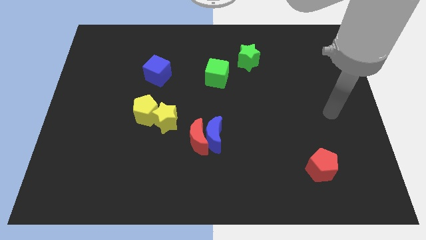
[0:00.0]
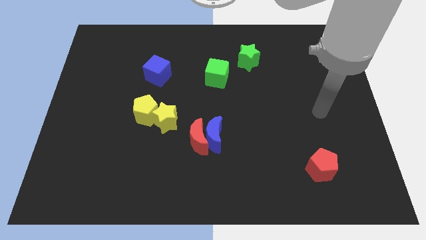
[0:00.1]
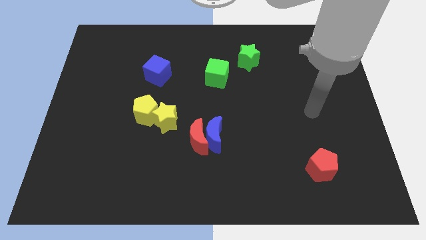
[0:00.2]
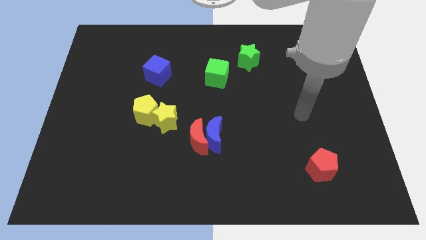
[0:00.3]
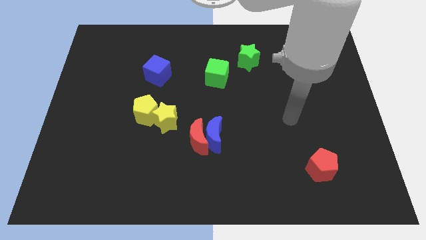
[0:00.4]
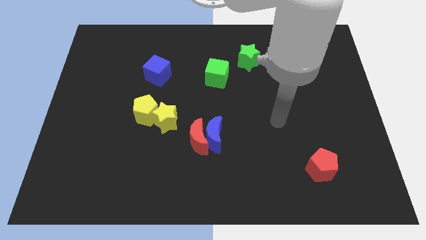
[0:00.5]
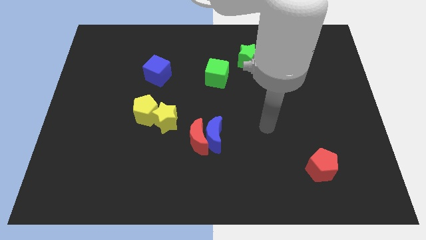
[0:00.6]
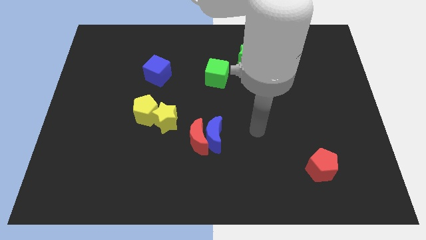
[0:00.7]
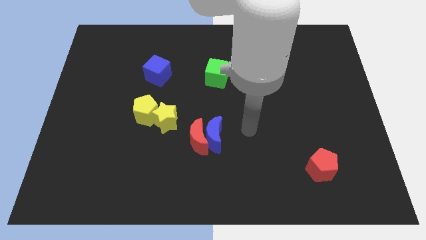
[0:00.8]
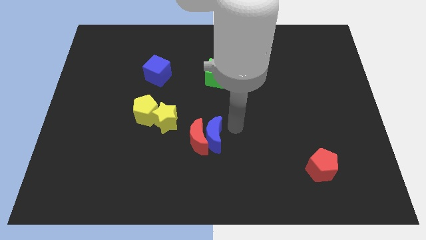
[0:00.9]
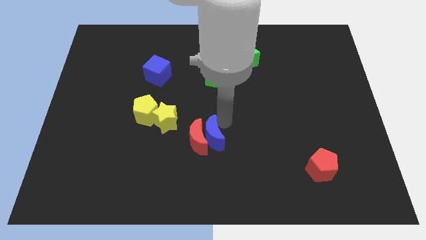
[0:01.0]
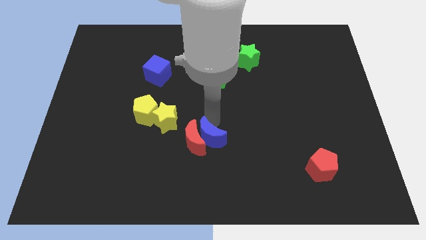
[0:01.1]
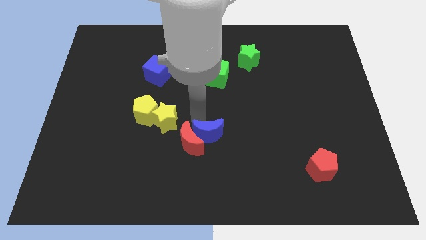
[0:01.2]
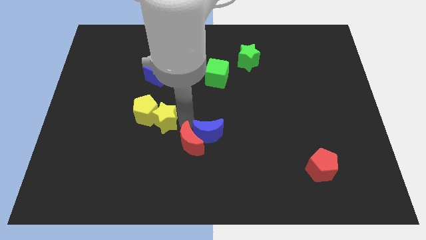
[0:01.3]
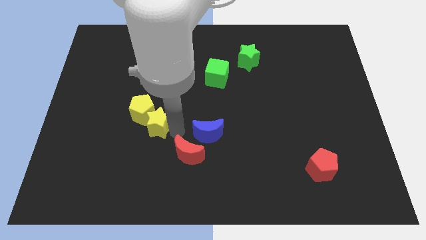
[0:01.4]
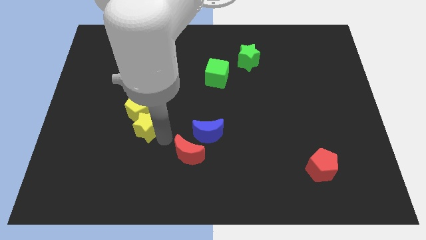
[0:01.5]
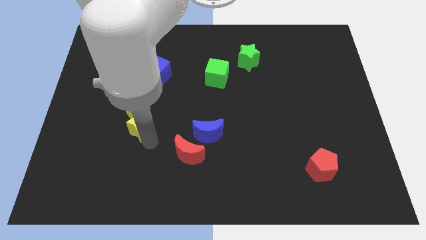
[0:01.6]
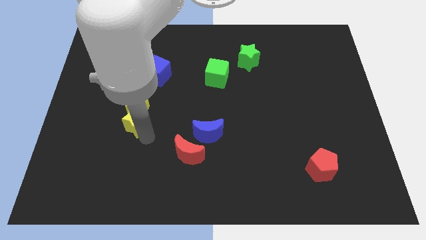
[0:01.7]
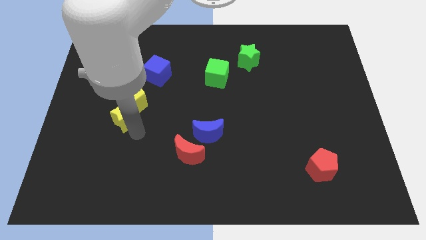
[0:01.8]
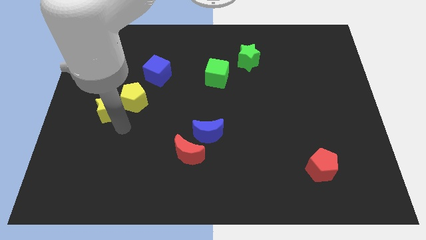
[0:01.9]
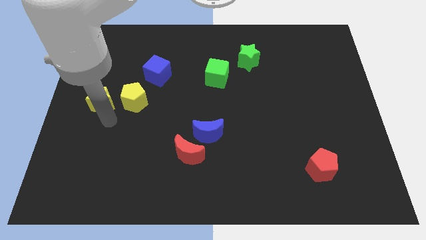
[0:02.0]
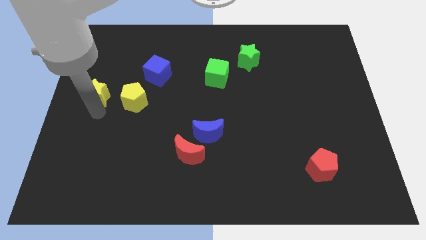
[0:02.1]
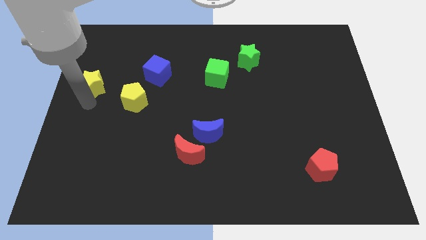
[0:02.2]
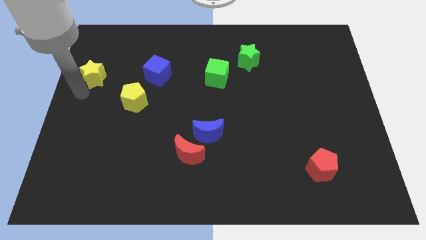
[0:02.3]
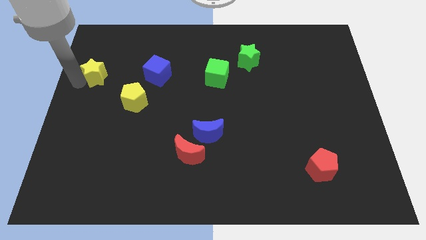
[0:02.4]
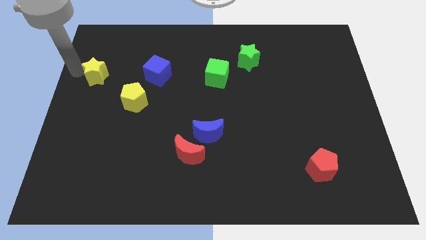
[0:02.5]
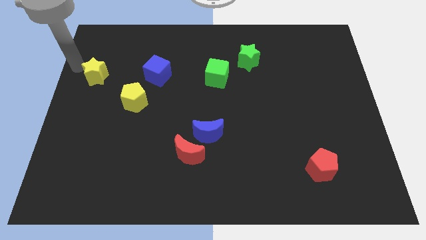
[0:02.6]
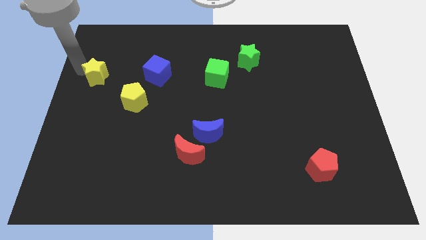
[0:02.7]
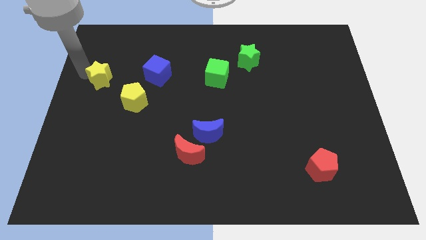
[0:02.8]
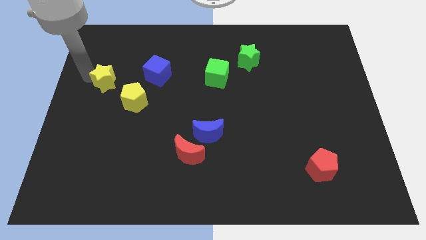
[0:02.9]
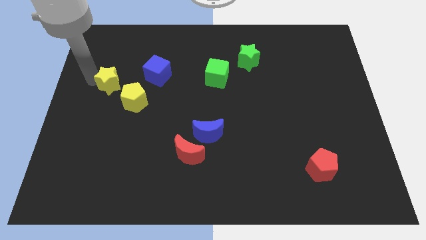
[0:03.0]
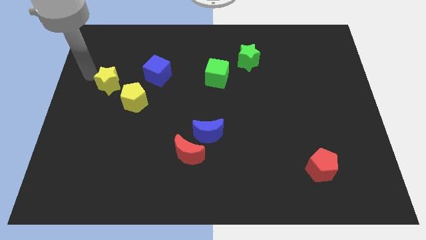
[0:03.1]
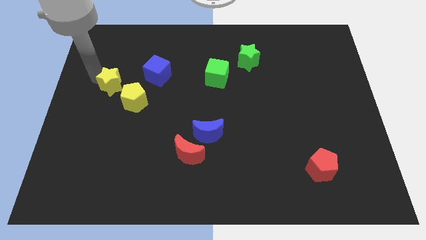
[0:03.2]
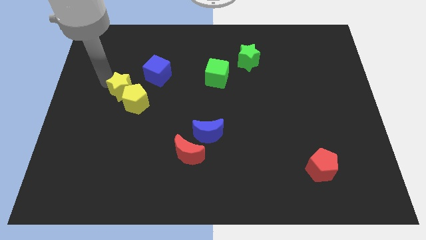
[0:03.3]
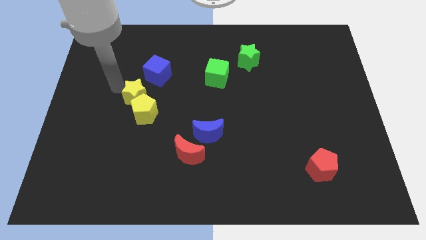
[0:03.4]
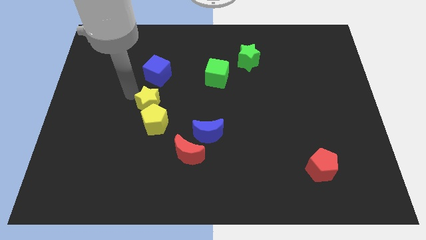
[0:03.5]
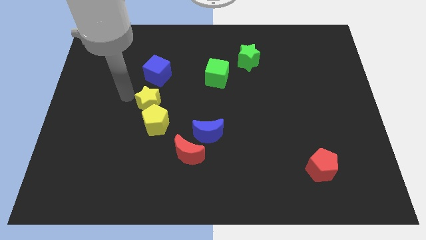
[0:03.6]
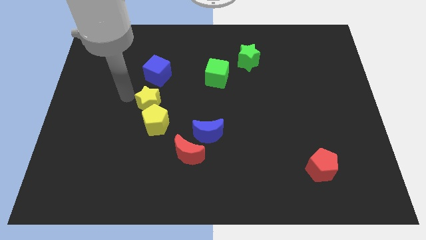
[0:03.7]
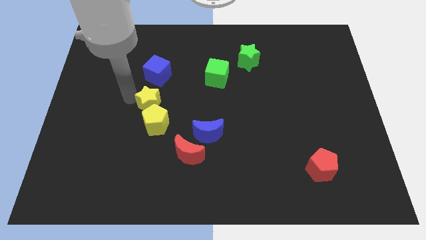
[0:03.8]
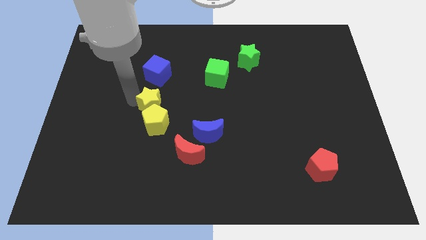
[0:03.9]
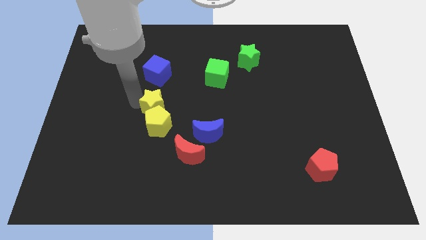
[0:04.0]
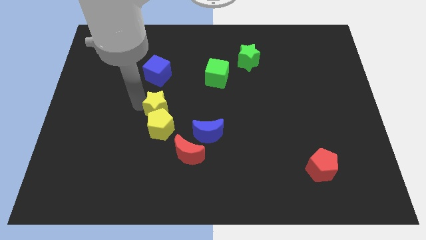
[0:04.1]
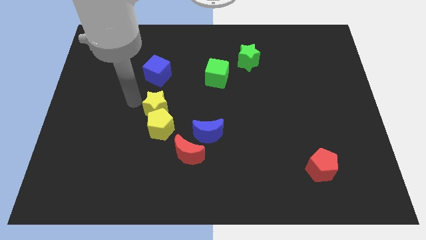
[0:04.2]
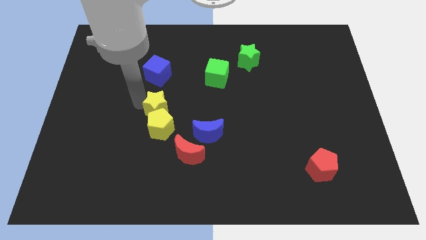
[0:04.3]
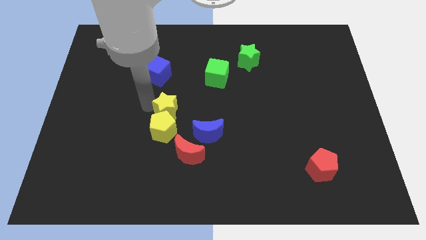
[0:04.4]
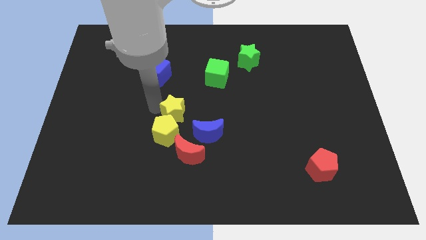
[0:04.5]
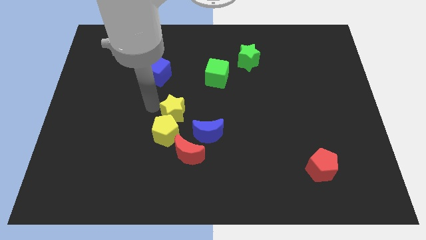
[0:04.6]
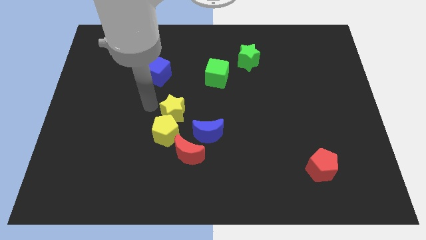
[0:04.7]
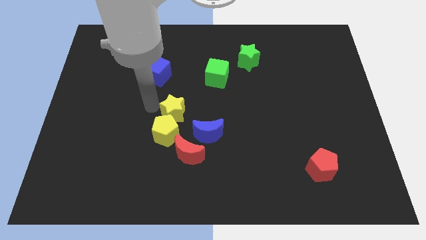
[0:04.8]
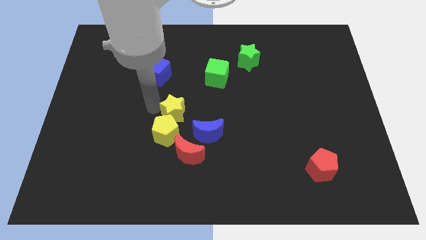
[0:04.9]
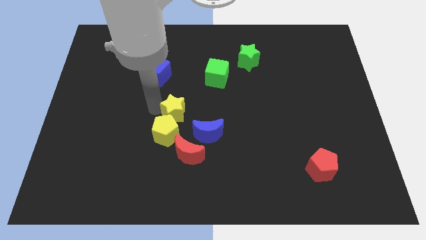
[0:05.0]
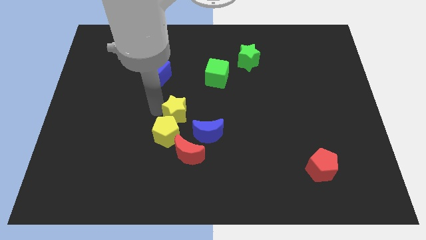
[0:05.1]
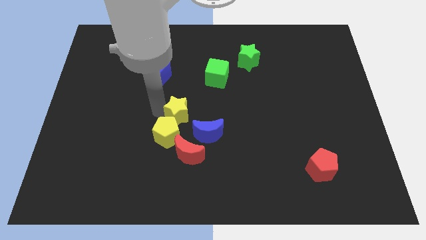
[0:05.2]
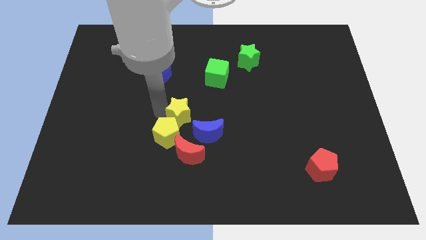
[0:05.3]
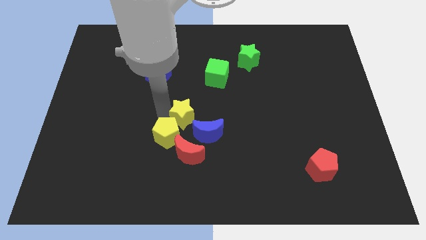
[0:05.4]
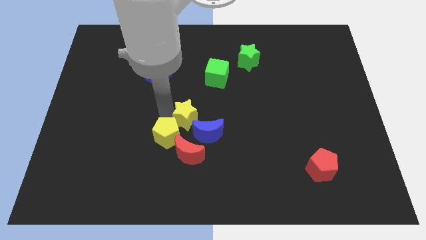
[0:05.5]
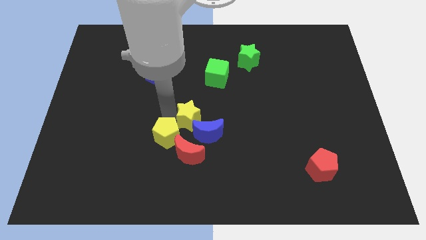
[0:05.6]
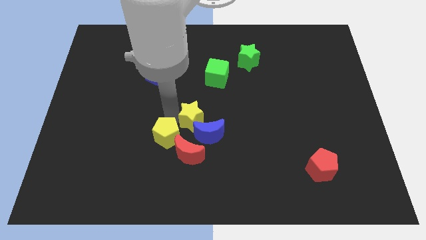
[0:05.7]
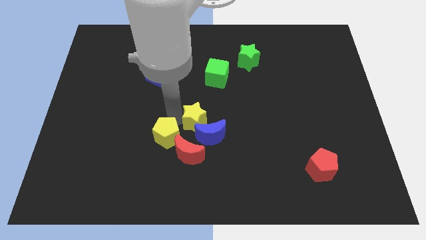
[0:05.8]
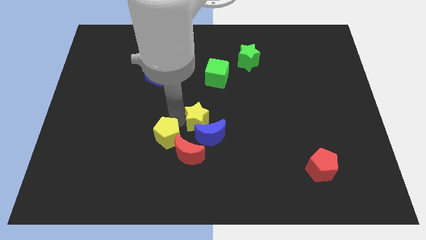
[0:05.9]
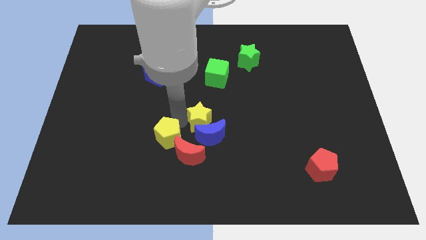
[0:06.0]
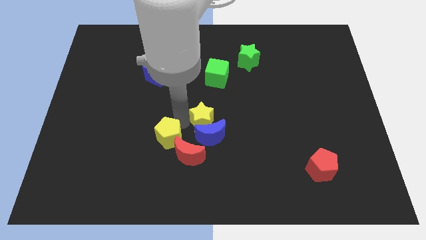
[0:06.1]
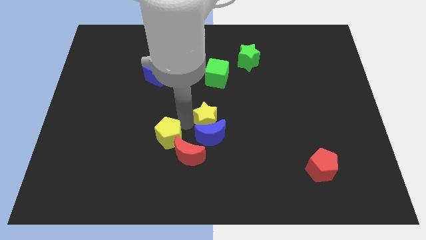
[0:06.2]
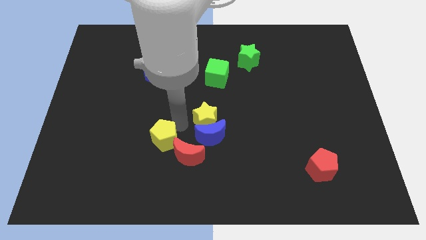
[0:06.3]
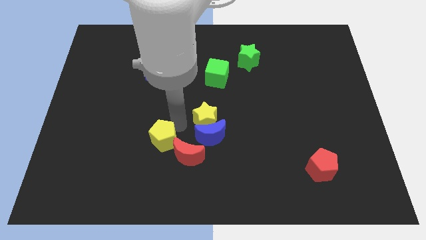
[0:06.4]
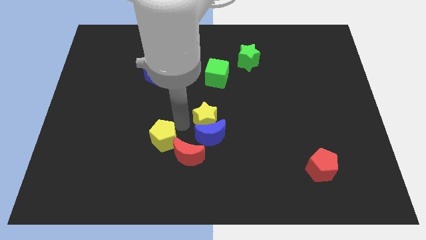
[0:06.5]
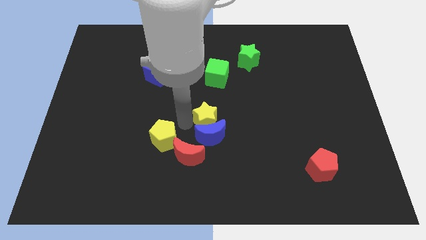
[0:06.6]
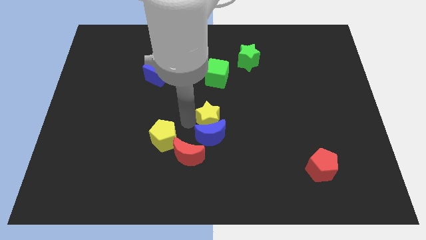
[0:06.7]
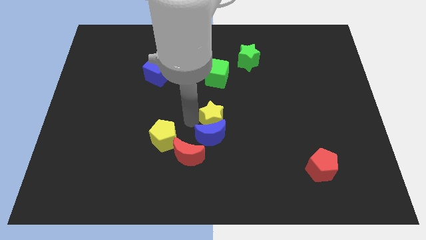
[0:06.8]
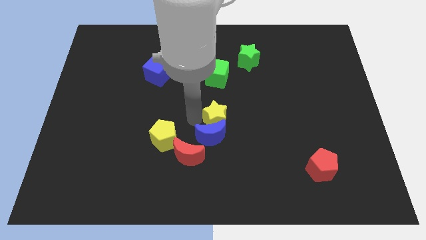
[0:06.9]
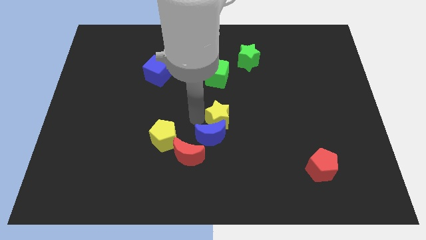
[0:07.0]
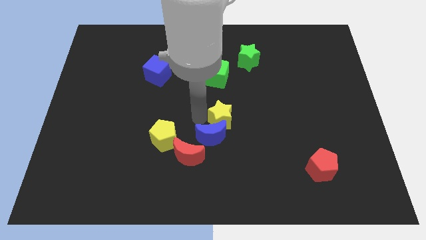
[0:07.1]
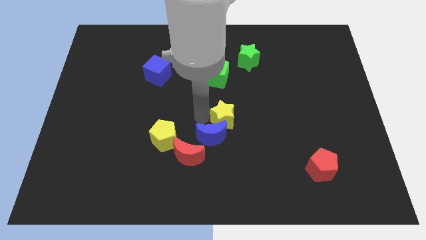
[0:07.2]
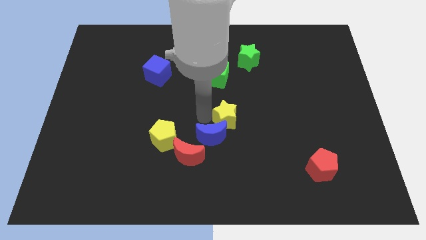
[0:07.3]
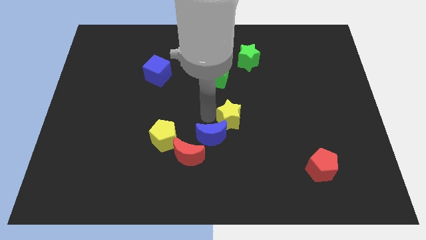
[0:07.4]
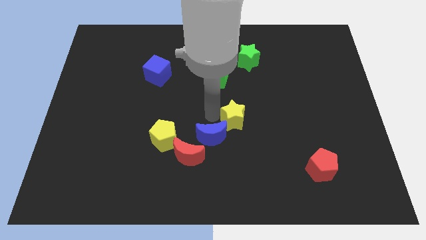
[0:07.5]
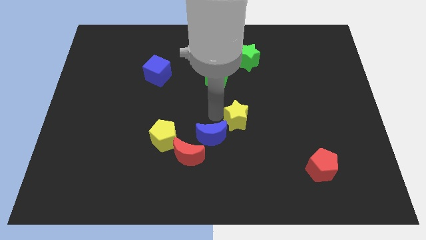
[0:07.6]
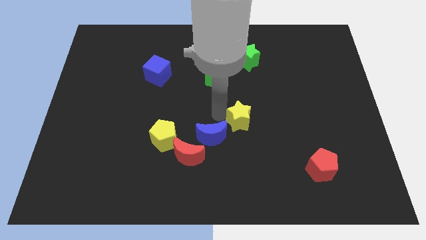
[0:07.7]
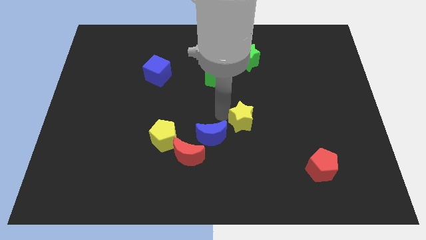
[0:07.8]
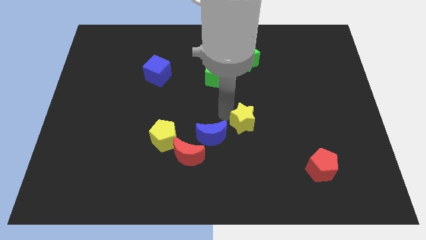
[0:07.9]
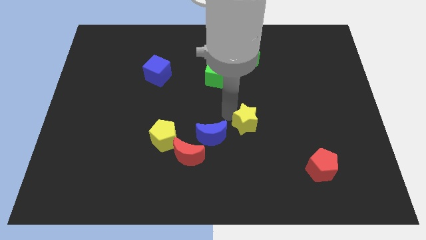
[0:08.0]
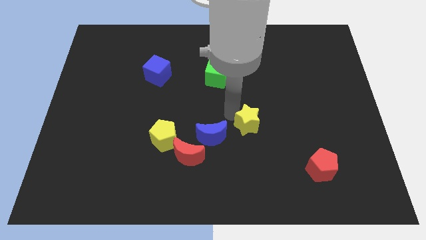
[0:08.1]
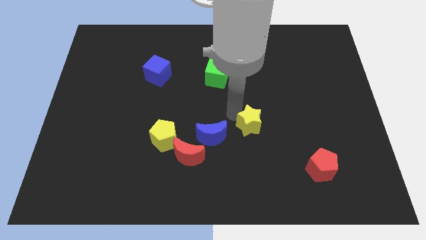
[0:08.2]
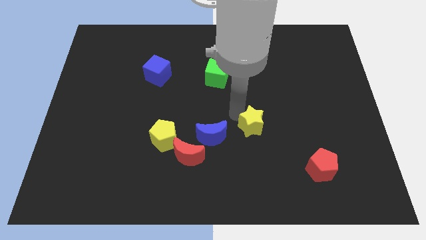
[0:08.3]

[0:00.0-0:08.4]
slide the yellow star to the right

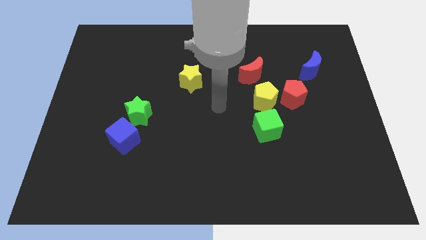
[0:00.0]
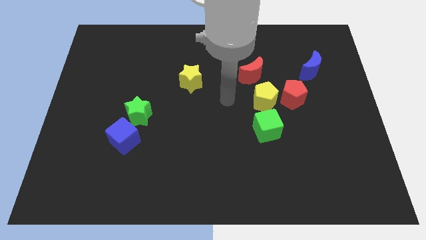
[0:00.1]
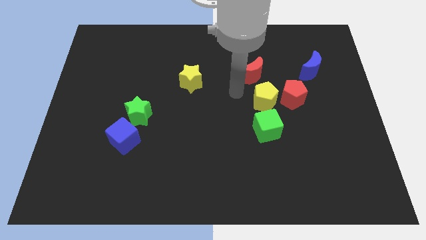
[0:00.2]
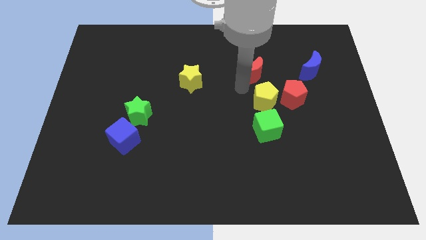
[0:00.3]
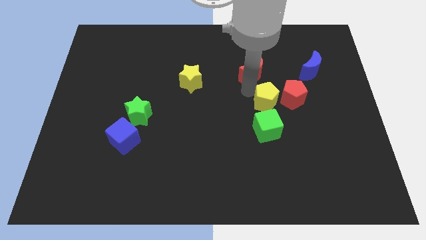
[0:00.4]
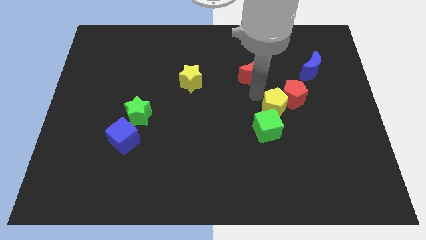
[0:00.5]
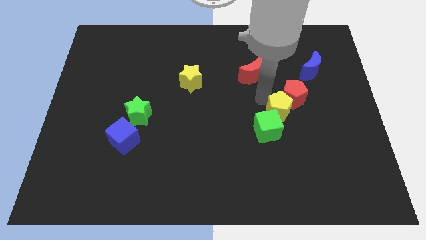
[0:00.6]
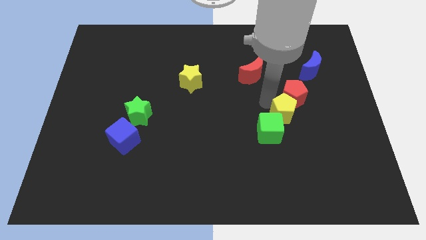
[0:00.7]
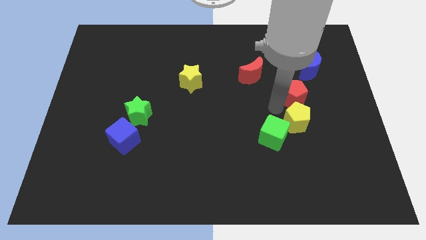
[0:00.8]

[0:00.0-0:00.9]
slide the yellow pentagon a bit diagonally down and to the right
